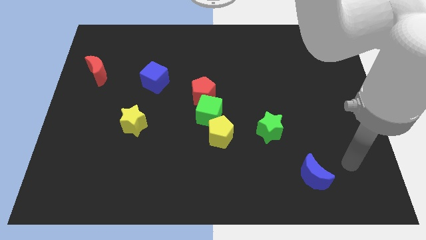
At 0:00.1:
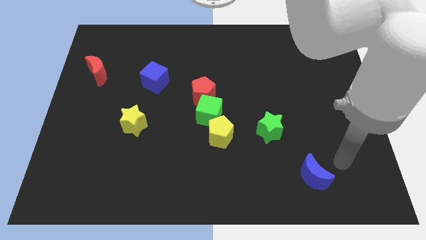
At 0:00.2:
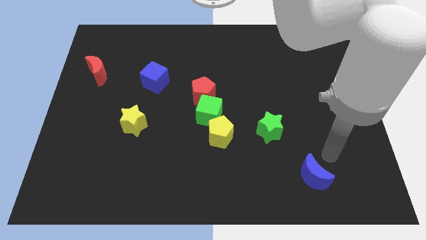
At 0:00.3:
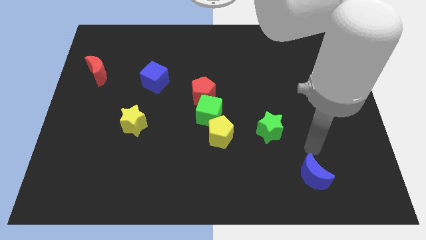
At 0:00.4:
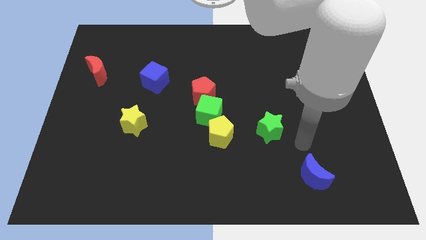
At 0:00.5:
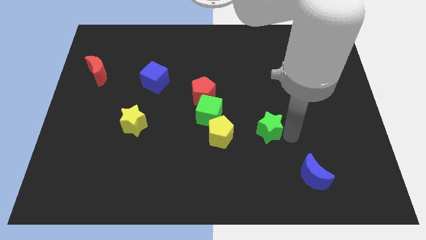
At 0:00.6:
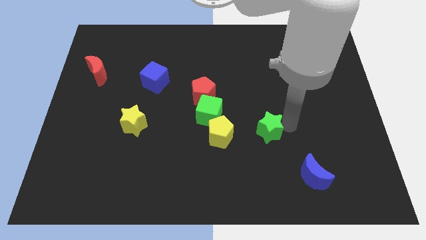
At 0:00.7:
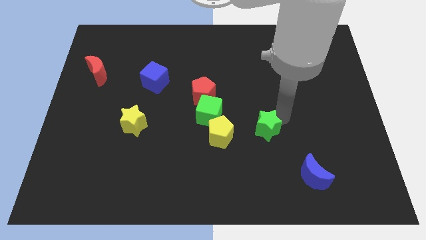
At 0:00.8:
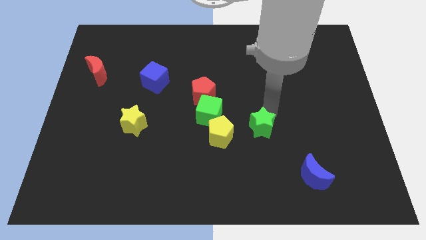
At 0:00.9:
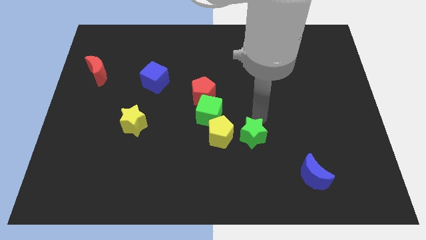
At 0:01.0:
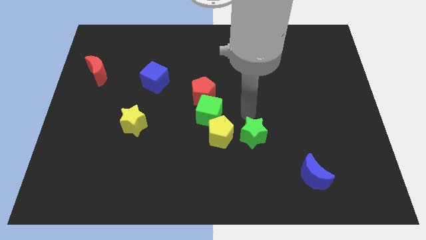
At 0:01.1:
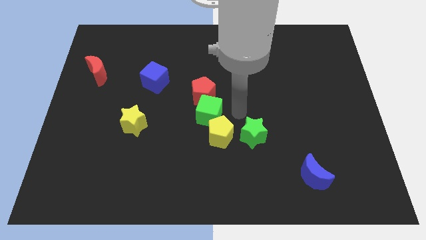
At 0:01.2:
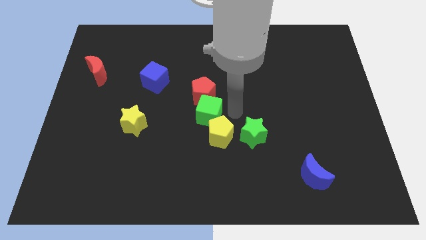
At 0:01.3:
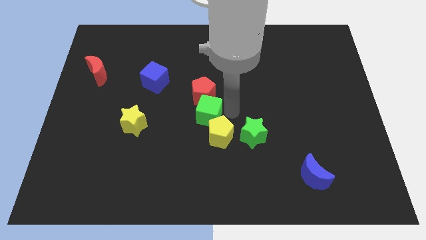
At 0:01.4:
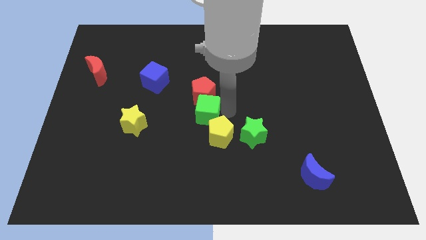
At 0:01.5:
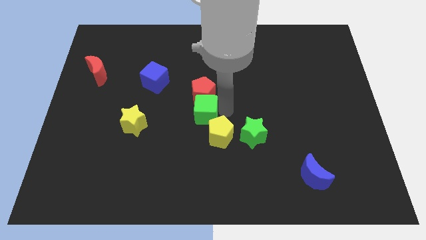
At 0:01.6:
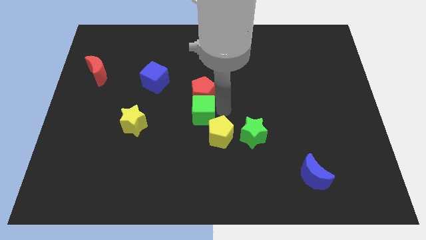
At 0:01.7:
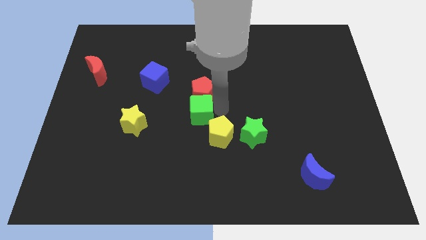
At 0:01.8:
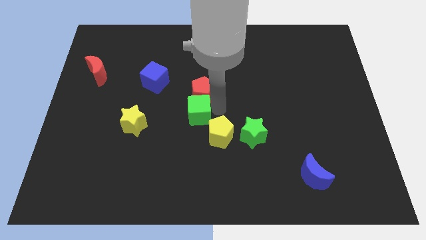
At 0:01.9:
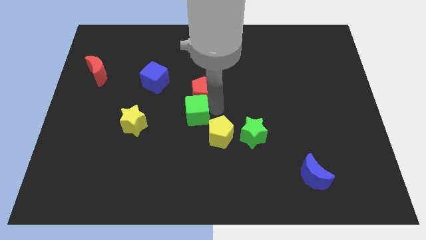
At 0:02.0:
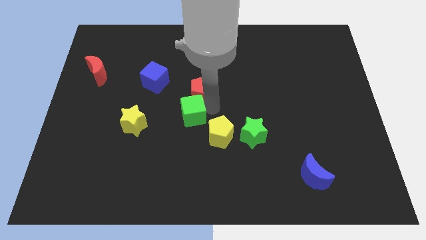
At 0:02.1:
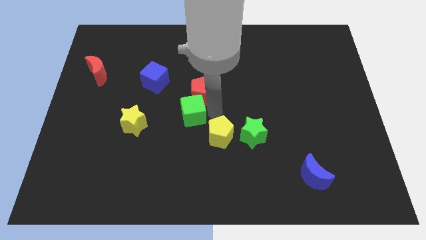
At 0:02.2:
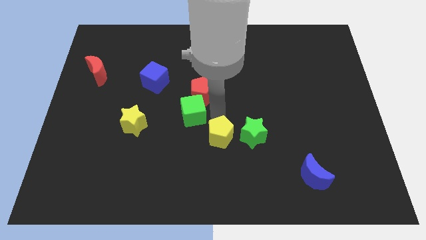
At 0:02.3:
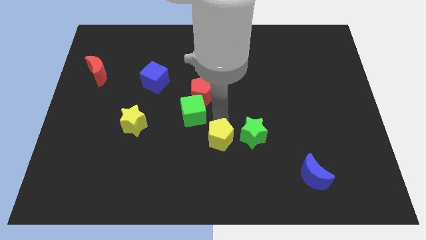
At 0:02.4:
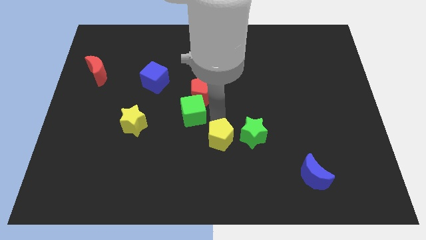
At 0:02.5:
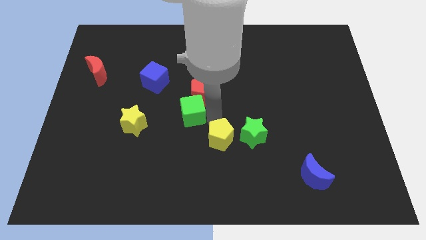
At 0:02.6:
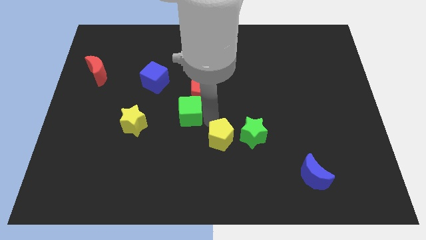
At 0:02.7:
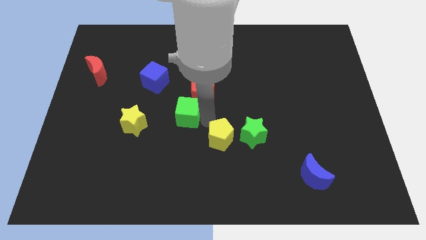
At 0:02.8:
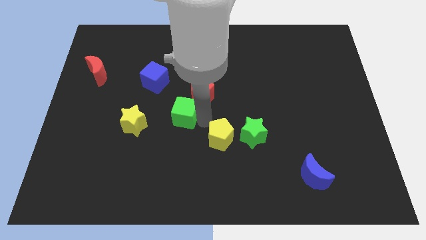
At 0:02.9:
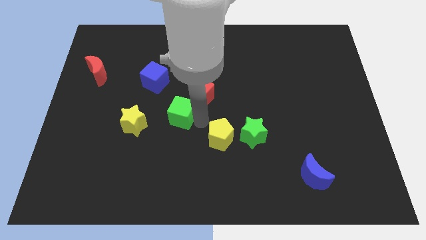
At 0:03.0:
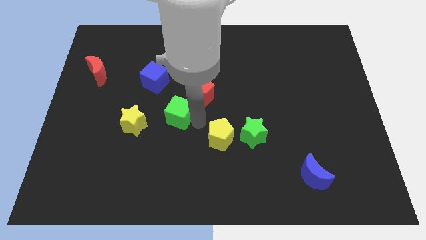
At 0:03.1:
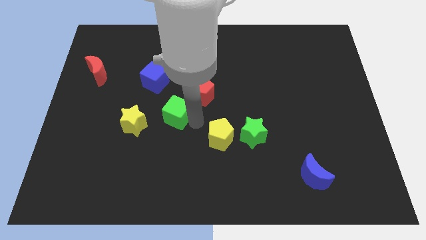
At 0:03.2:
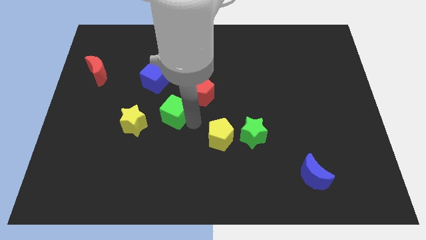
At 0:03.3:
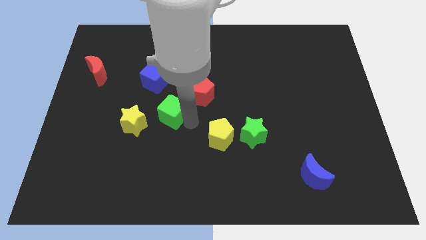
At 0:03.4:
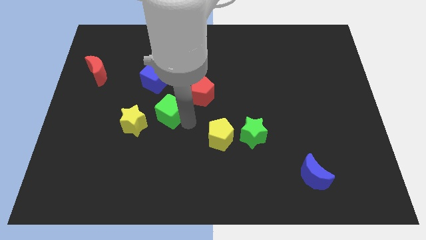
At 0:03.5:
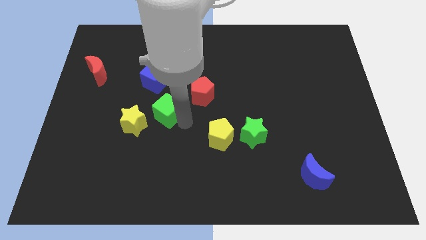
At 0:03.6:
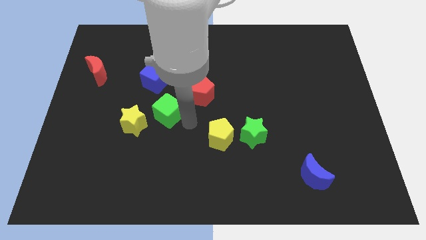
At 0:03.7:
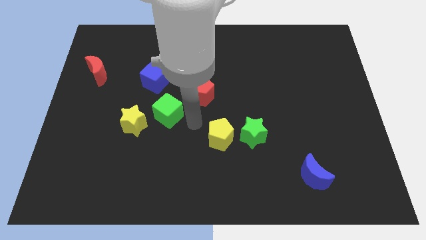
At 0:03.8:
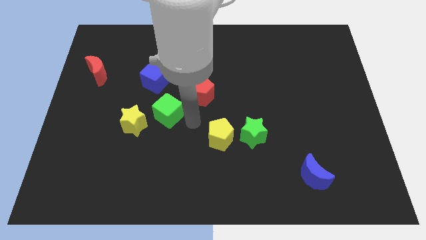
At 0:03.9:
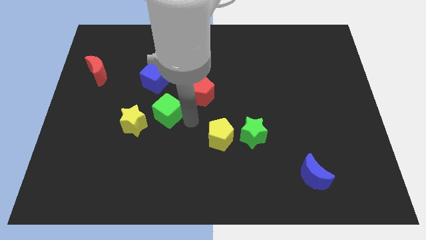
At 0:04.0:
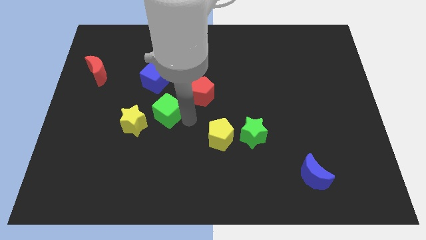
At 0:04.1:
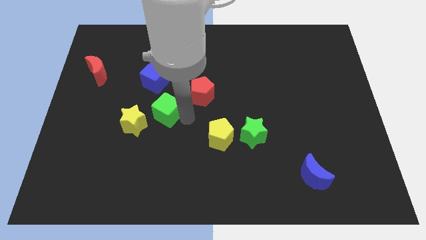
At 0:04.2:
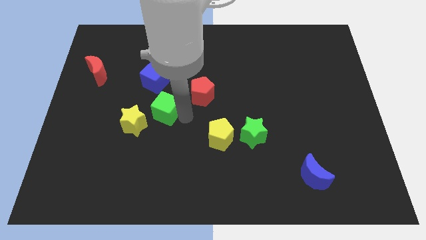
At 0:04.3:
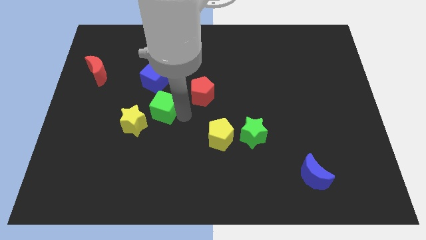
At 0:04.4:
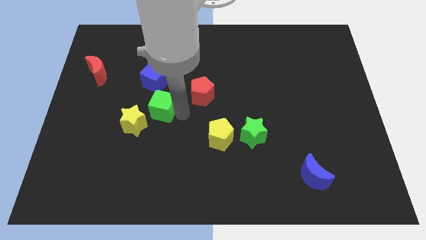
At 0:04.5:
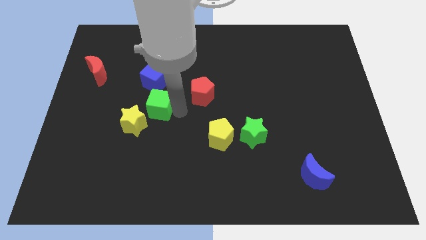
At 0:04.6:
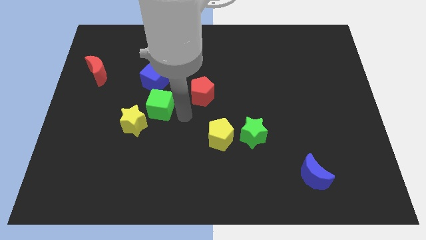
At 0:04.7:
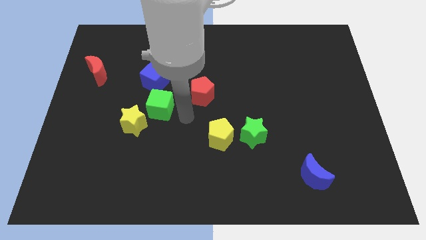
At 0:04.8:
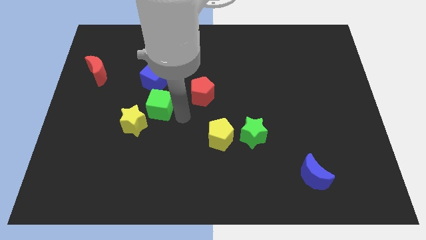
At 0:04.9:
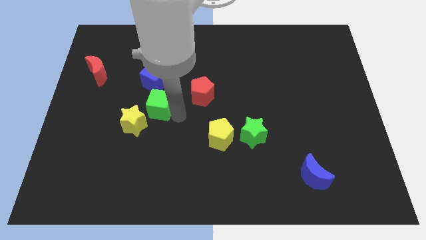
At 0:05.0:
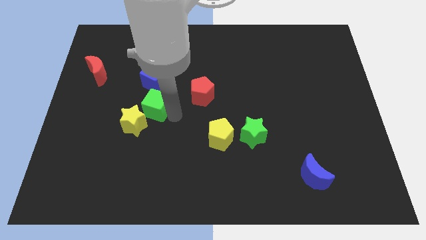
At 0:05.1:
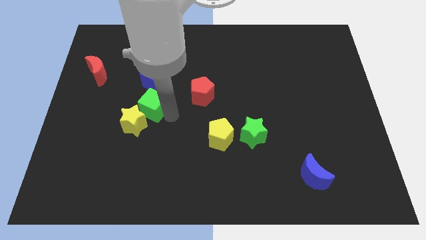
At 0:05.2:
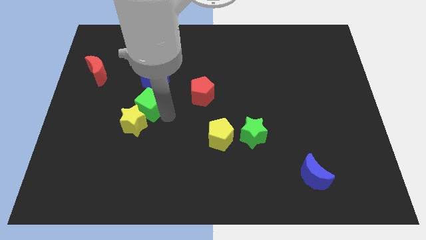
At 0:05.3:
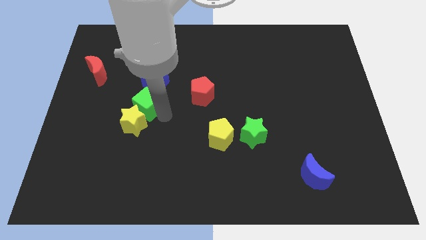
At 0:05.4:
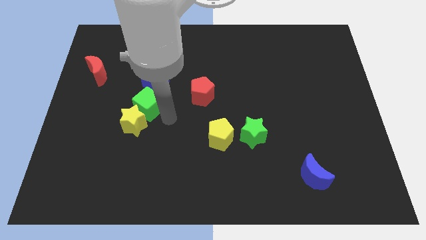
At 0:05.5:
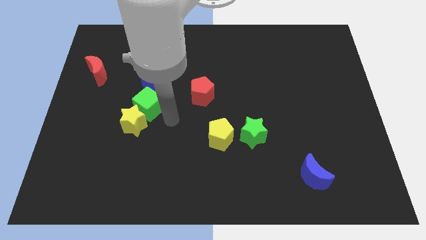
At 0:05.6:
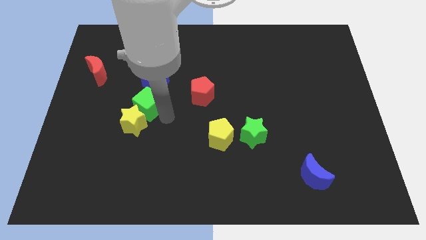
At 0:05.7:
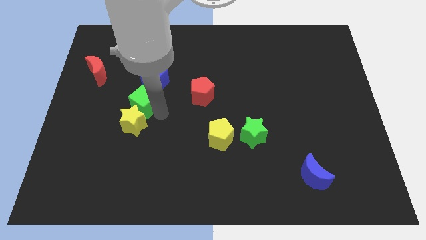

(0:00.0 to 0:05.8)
push the green cube diagonally down and to the left of the blue cube

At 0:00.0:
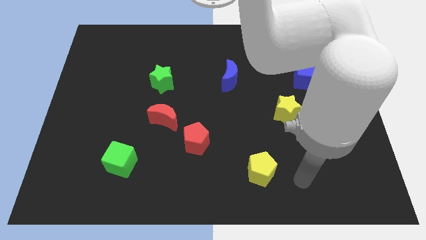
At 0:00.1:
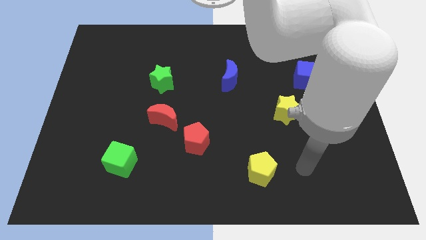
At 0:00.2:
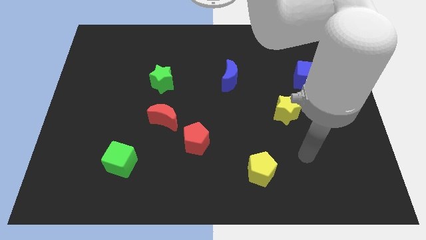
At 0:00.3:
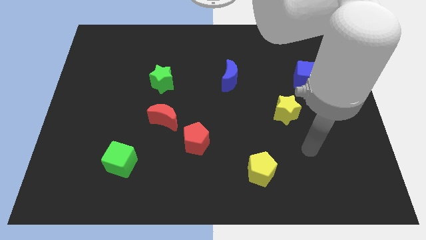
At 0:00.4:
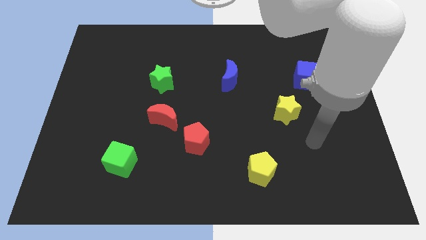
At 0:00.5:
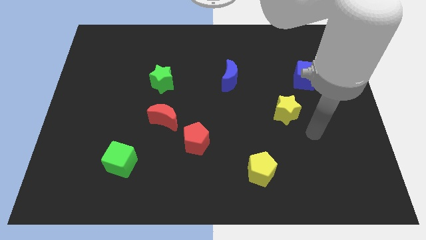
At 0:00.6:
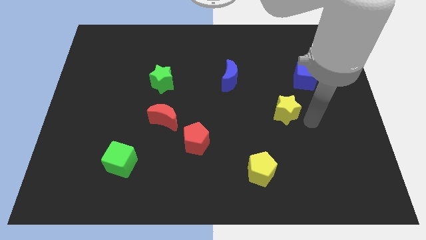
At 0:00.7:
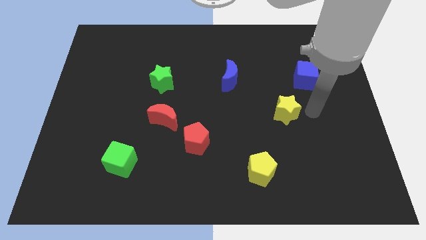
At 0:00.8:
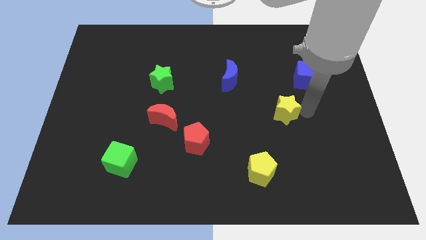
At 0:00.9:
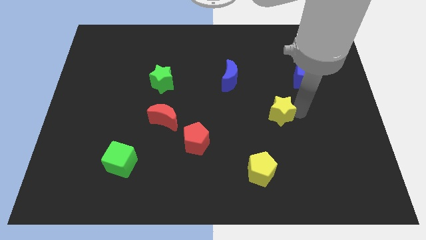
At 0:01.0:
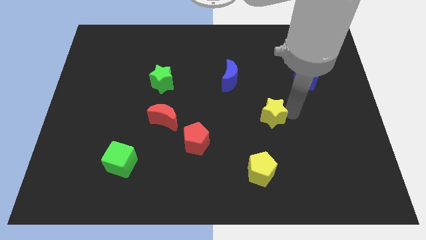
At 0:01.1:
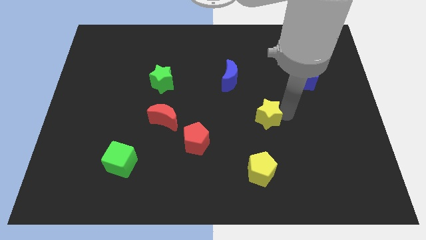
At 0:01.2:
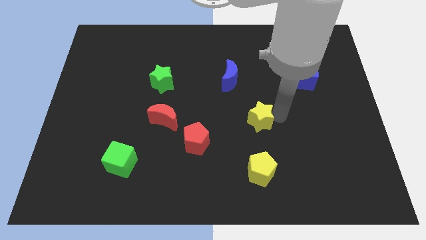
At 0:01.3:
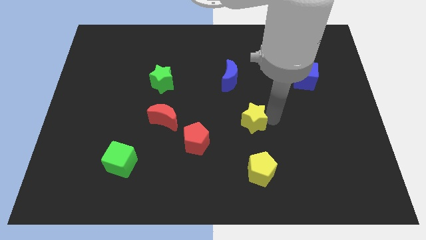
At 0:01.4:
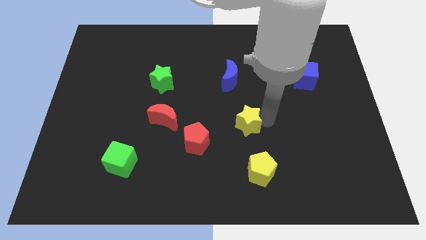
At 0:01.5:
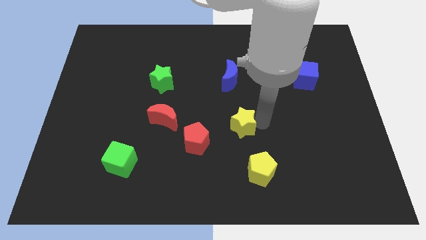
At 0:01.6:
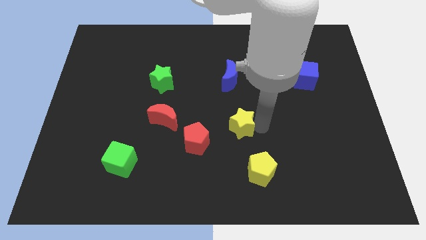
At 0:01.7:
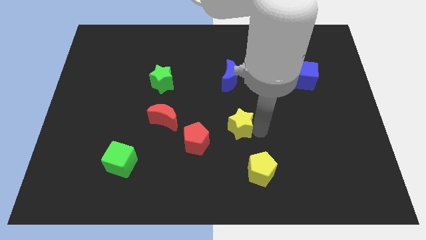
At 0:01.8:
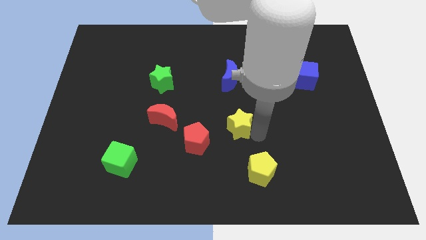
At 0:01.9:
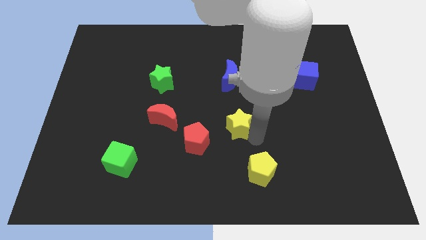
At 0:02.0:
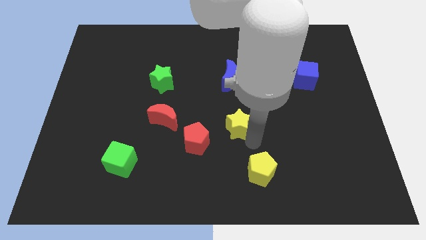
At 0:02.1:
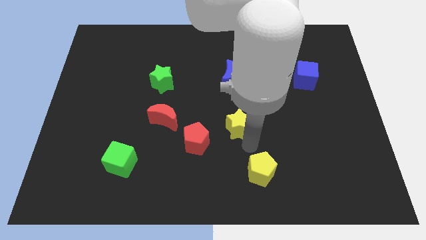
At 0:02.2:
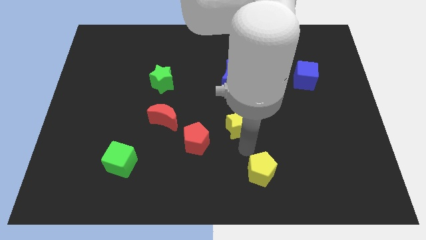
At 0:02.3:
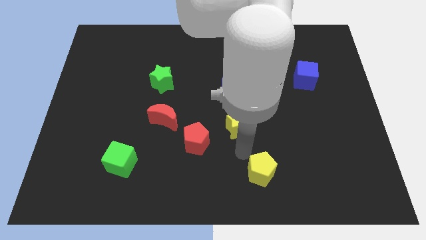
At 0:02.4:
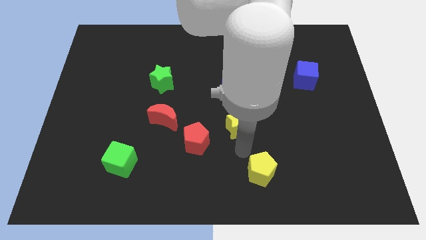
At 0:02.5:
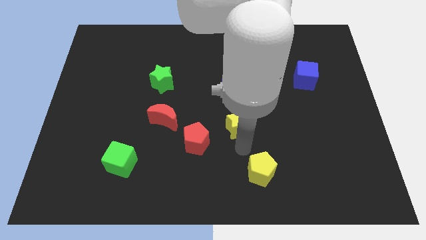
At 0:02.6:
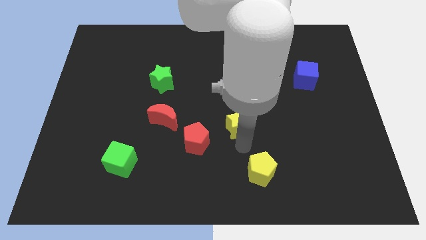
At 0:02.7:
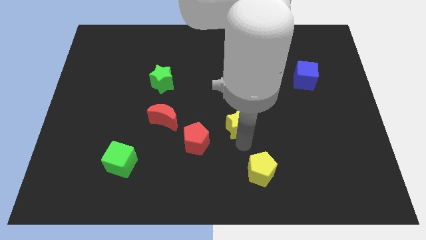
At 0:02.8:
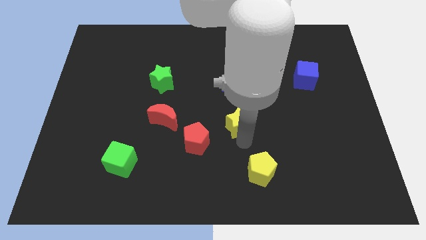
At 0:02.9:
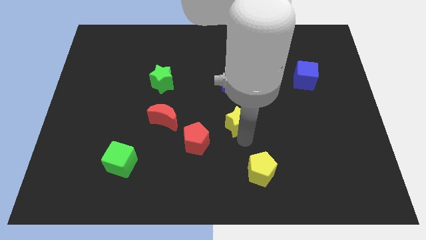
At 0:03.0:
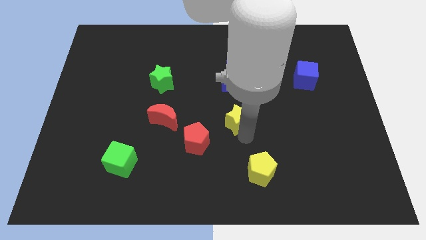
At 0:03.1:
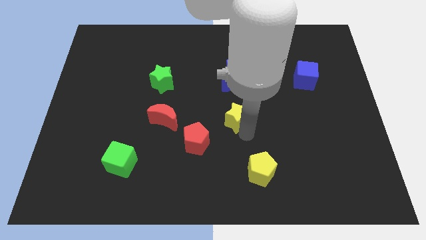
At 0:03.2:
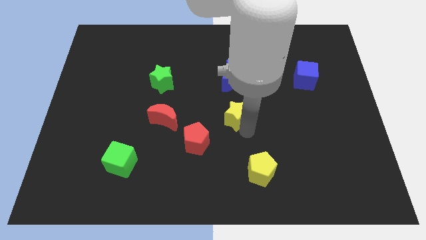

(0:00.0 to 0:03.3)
move the yellow star to the right side of the red moon
